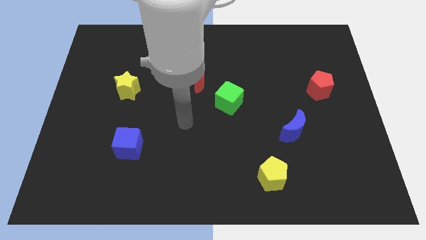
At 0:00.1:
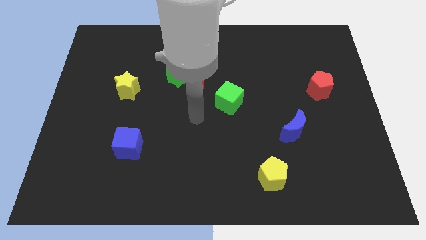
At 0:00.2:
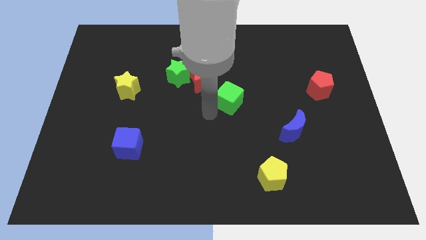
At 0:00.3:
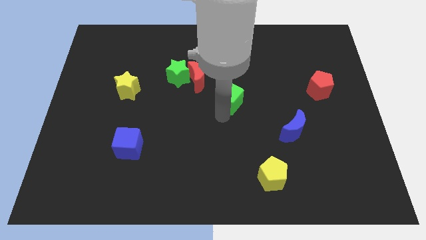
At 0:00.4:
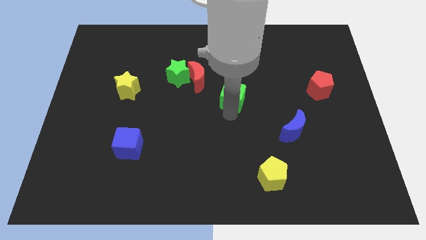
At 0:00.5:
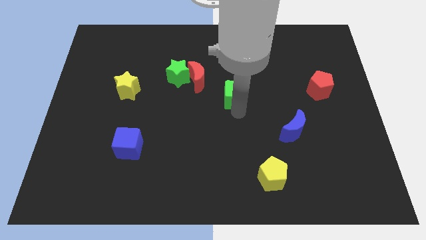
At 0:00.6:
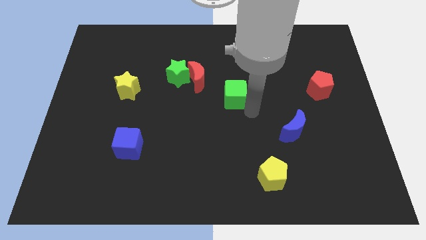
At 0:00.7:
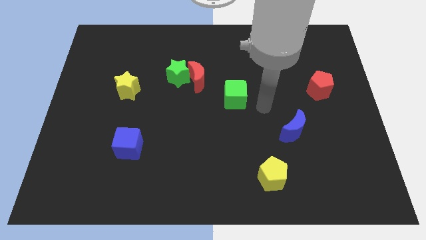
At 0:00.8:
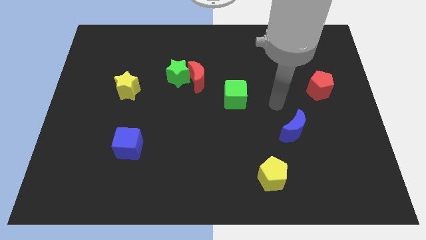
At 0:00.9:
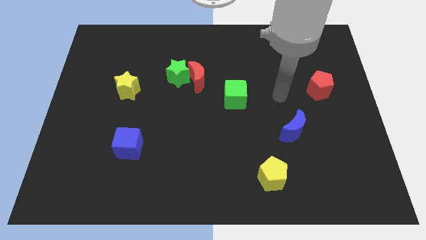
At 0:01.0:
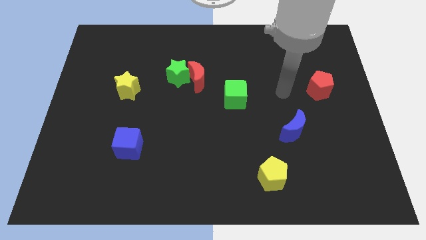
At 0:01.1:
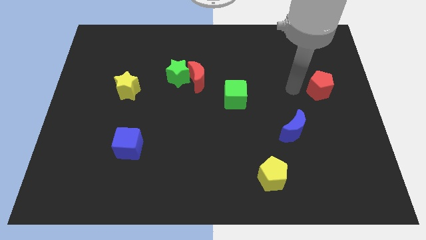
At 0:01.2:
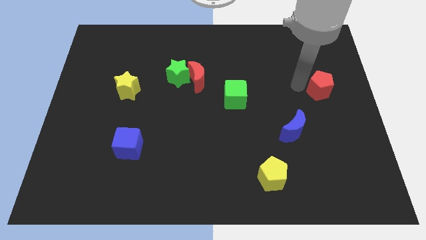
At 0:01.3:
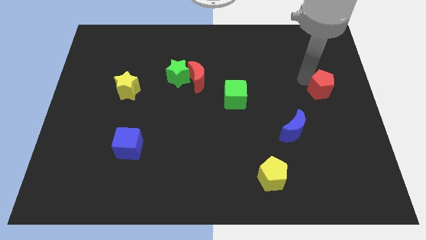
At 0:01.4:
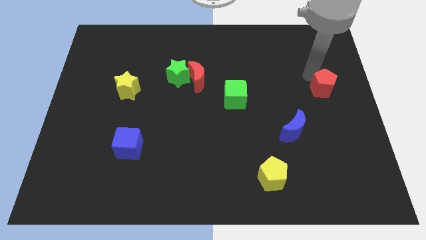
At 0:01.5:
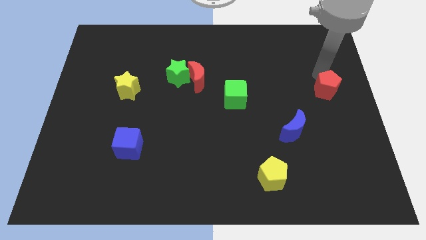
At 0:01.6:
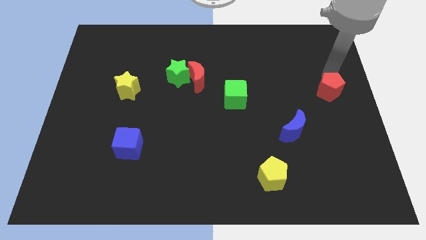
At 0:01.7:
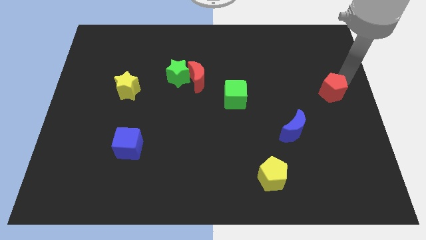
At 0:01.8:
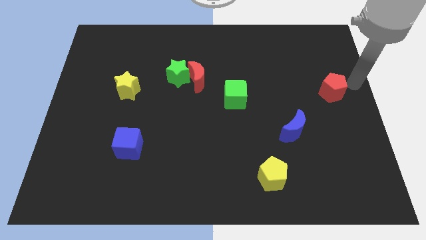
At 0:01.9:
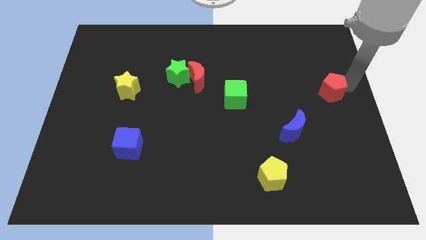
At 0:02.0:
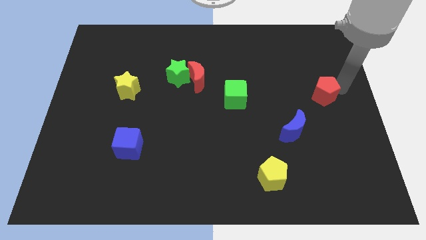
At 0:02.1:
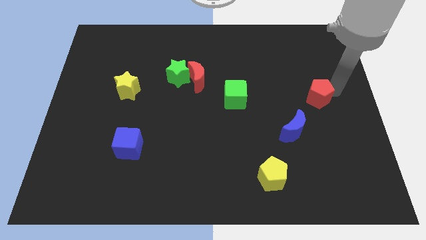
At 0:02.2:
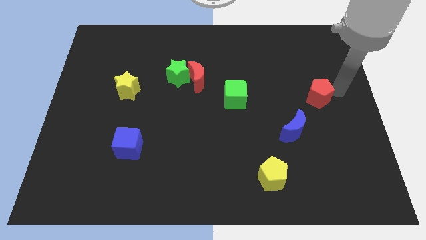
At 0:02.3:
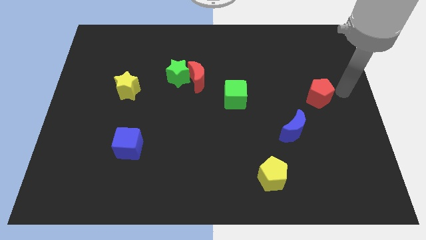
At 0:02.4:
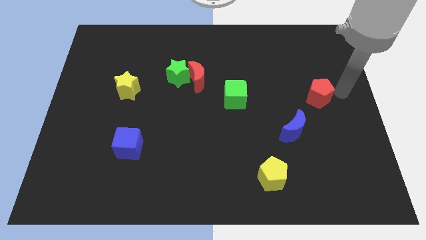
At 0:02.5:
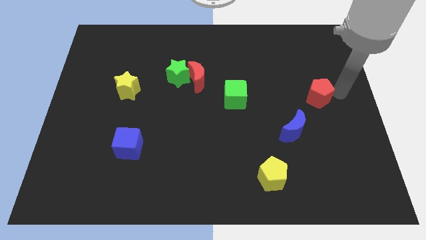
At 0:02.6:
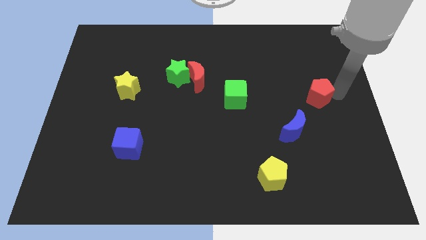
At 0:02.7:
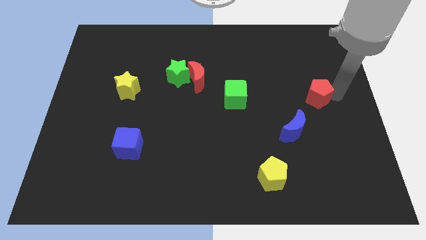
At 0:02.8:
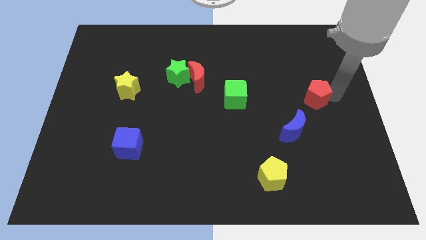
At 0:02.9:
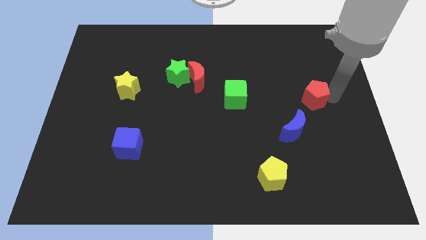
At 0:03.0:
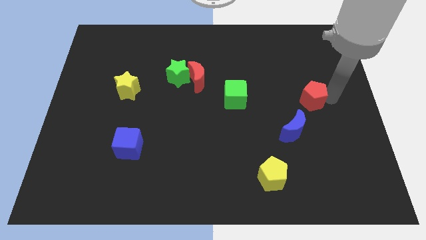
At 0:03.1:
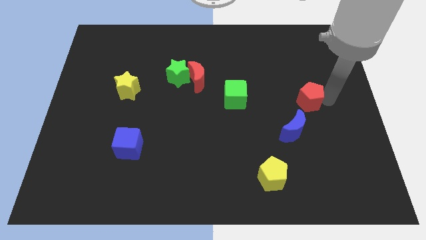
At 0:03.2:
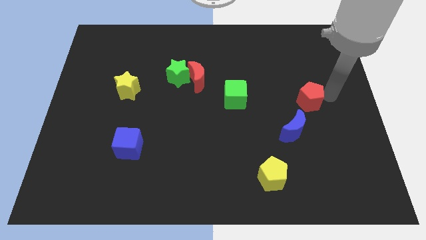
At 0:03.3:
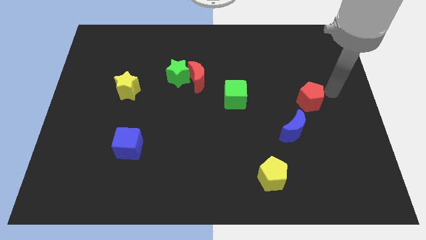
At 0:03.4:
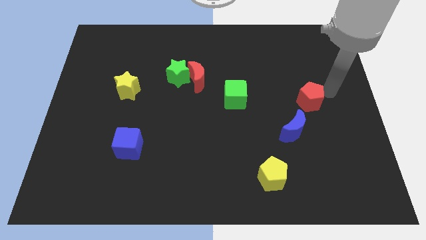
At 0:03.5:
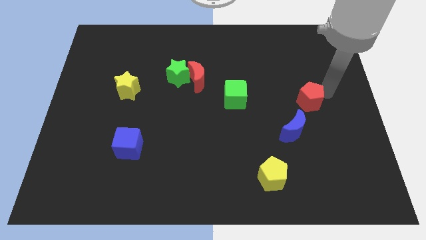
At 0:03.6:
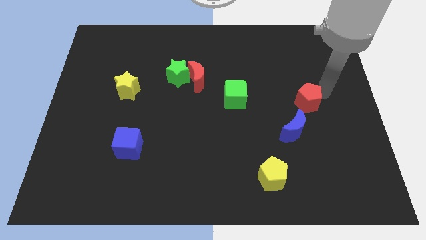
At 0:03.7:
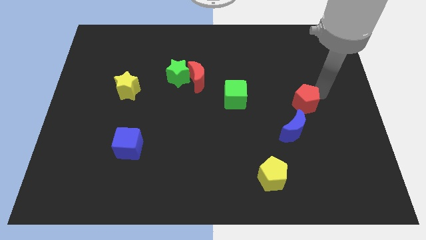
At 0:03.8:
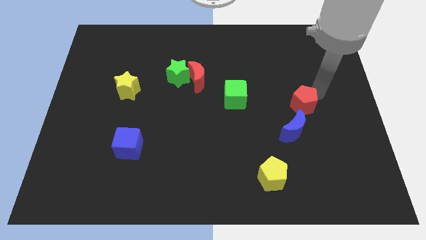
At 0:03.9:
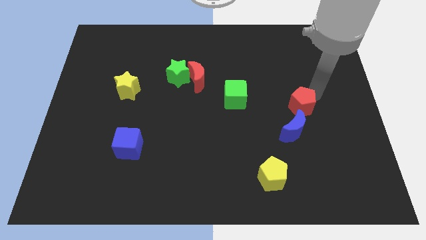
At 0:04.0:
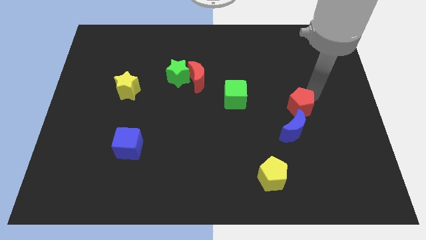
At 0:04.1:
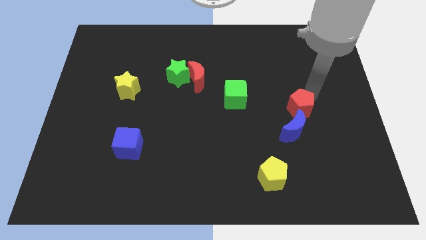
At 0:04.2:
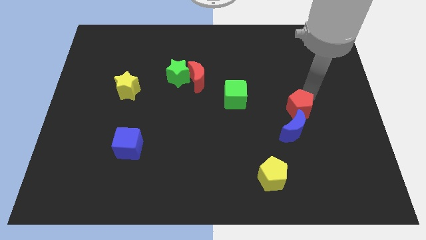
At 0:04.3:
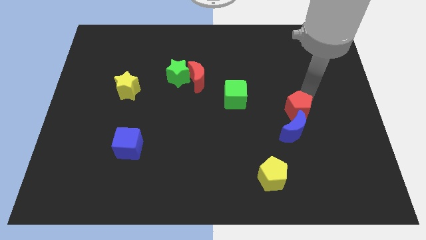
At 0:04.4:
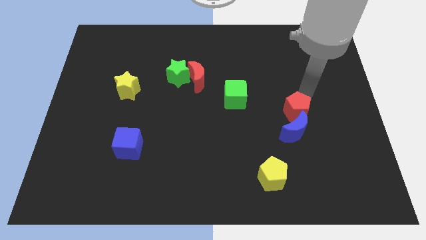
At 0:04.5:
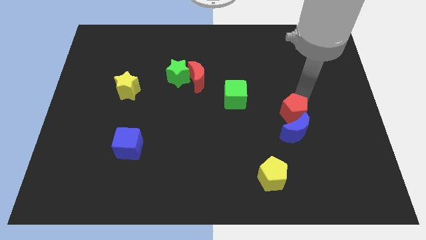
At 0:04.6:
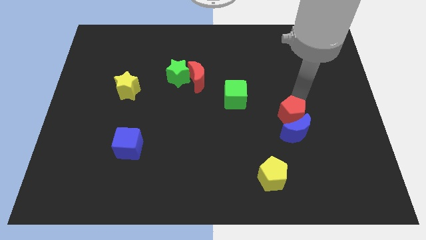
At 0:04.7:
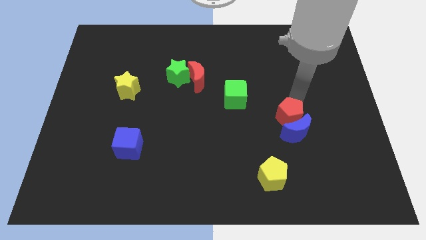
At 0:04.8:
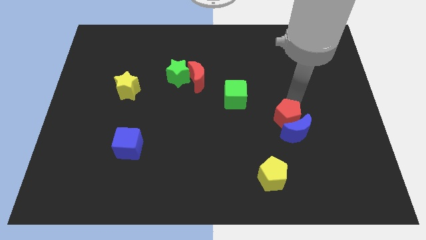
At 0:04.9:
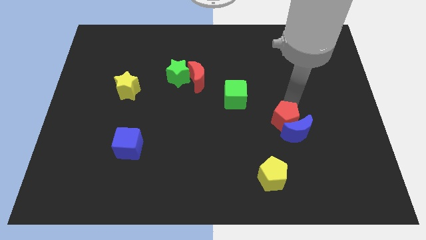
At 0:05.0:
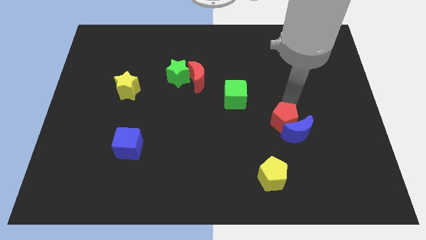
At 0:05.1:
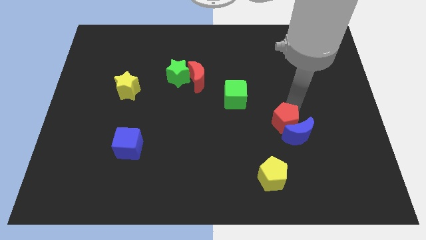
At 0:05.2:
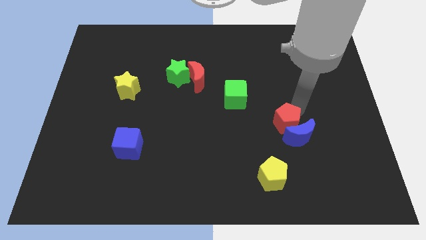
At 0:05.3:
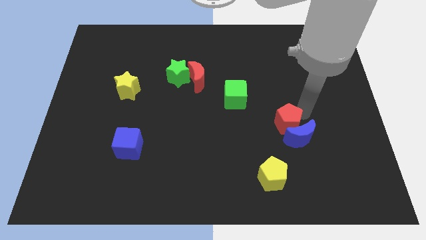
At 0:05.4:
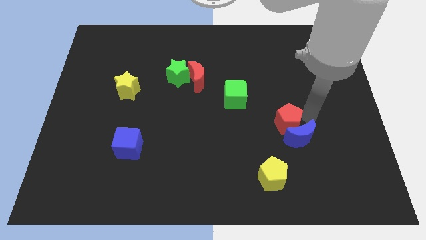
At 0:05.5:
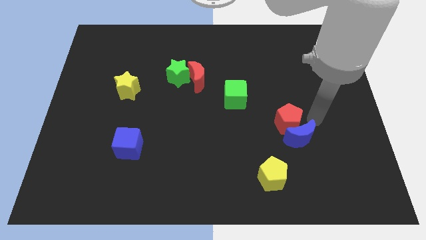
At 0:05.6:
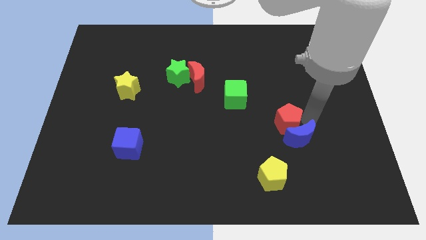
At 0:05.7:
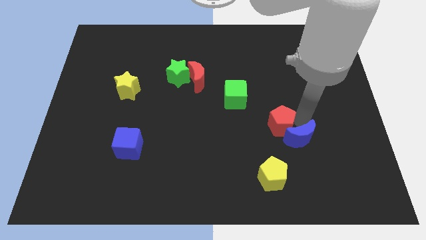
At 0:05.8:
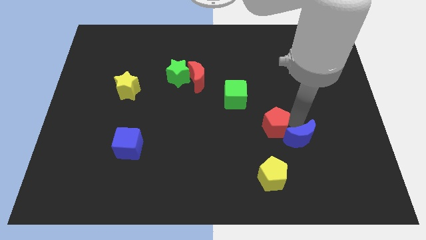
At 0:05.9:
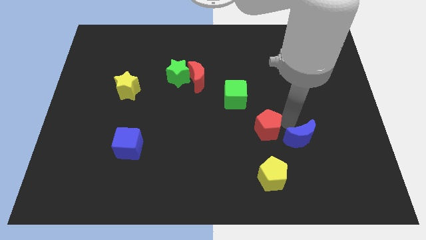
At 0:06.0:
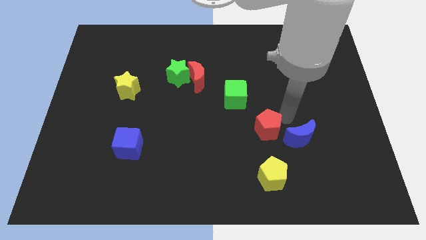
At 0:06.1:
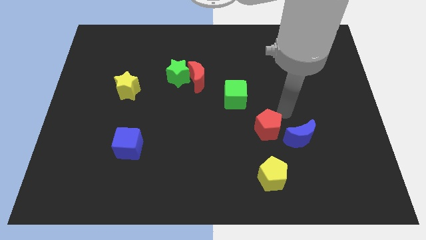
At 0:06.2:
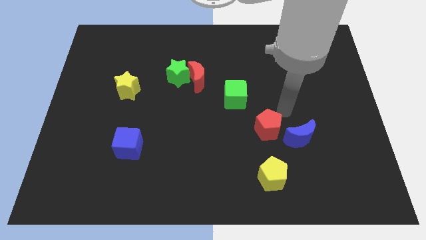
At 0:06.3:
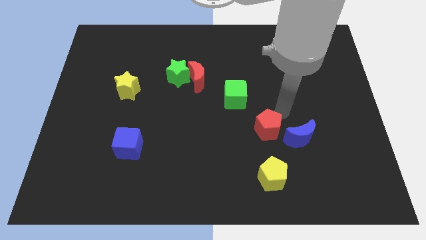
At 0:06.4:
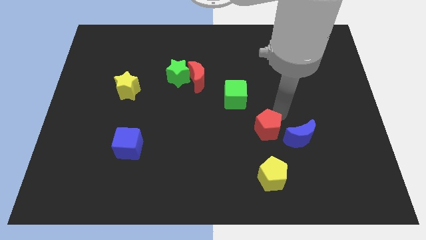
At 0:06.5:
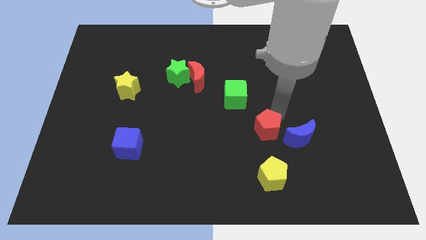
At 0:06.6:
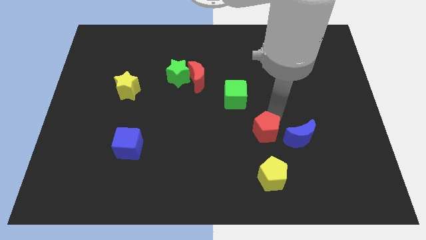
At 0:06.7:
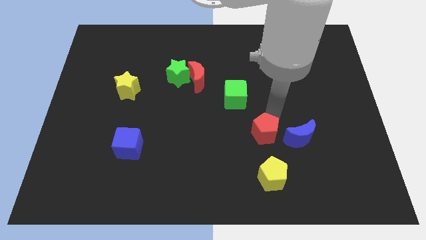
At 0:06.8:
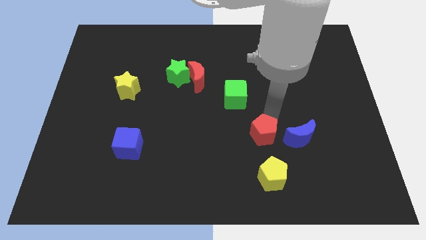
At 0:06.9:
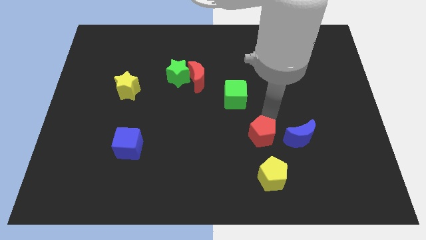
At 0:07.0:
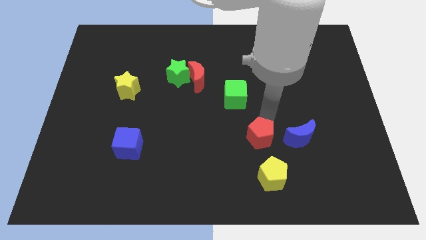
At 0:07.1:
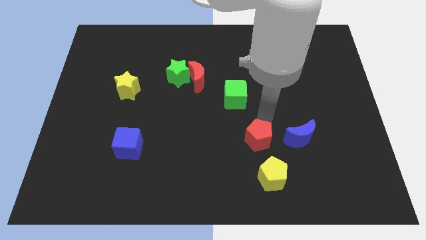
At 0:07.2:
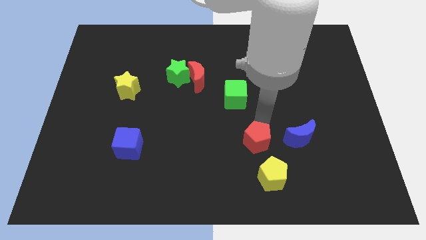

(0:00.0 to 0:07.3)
slide the red pentagon to the top left side of the yellow pentagon
